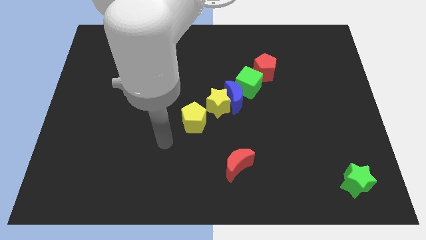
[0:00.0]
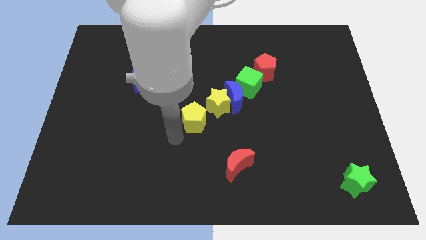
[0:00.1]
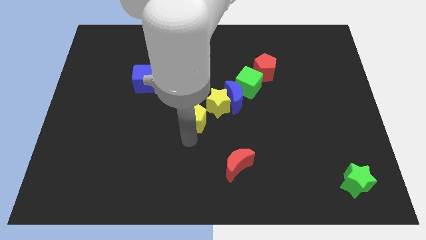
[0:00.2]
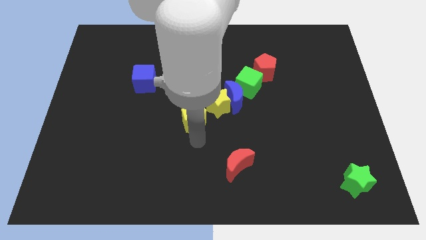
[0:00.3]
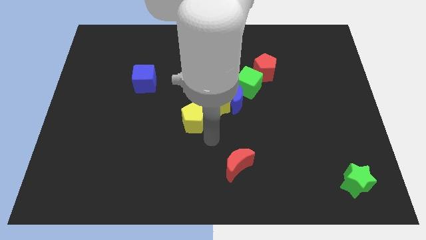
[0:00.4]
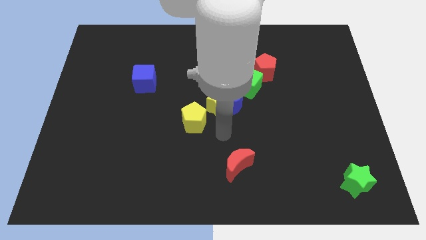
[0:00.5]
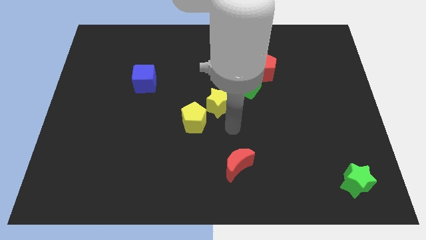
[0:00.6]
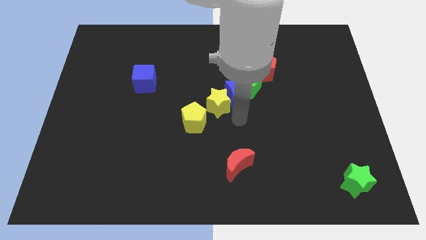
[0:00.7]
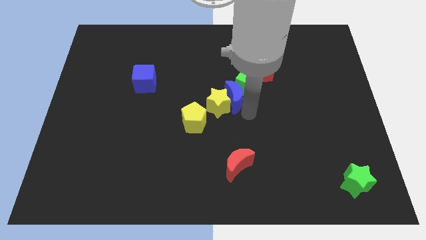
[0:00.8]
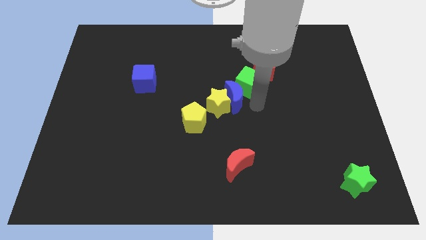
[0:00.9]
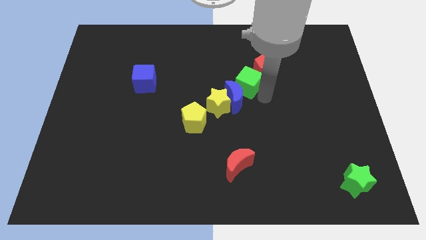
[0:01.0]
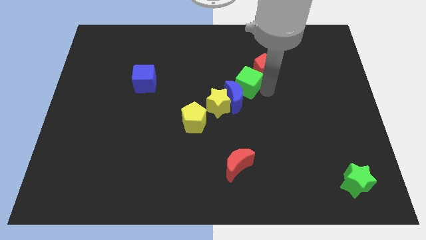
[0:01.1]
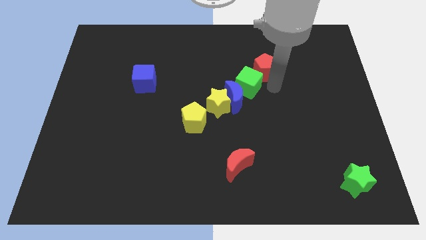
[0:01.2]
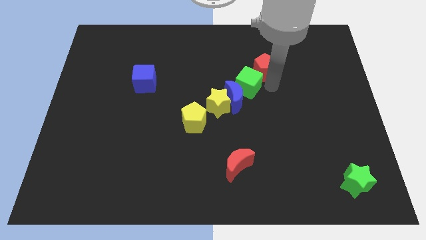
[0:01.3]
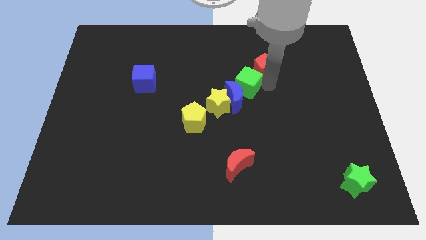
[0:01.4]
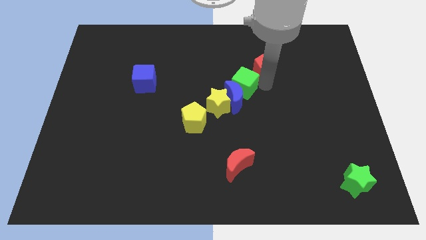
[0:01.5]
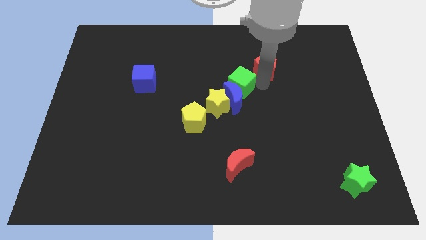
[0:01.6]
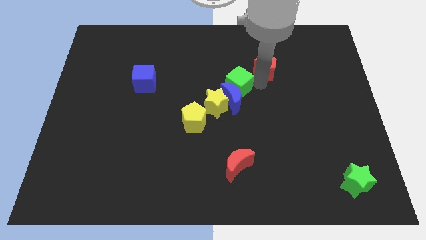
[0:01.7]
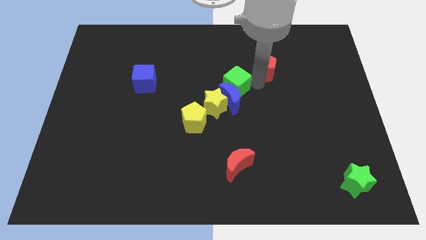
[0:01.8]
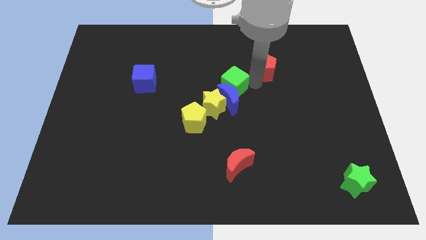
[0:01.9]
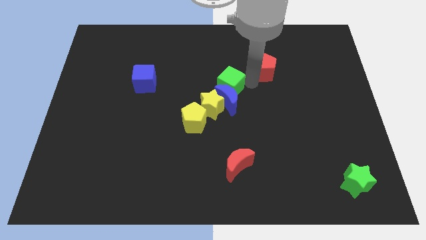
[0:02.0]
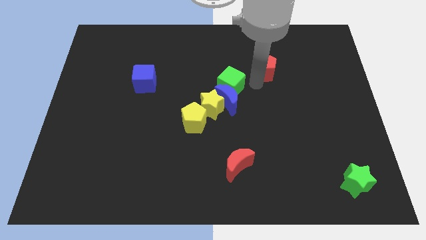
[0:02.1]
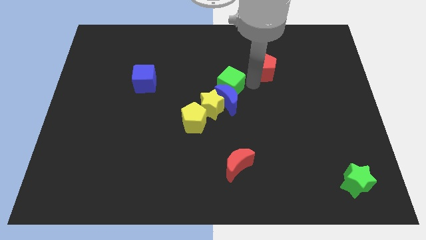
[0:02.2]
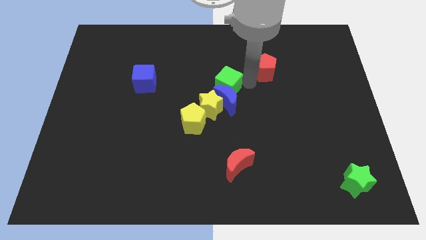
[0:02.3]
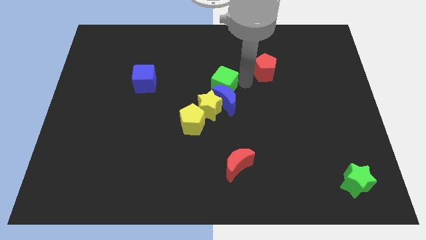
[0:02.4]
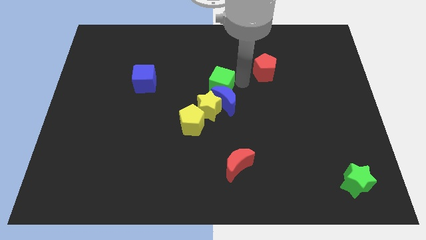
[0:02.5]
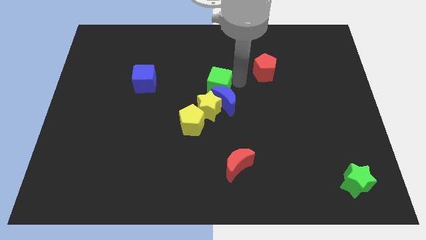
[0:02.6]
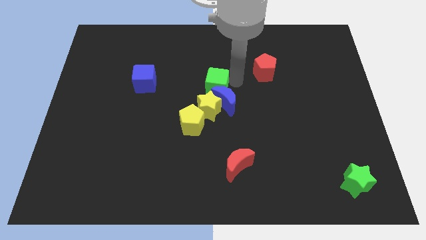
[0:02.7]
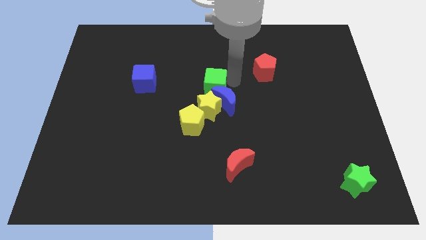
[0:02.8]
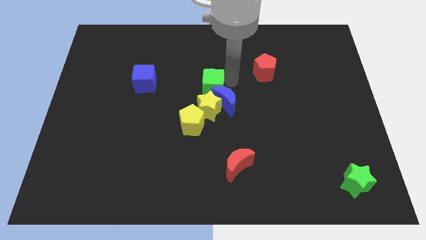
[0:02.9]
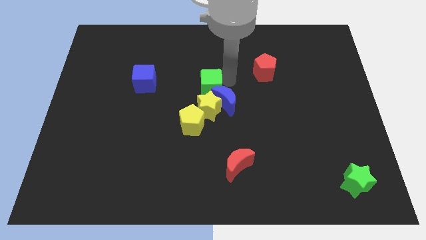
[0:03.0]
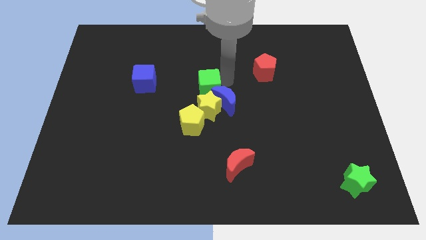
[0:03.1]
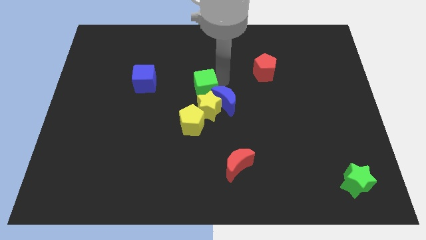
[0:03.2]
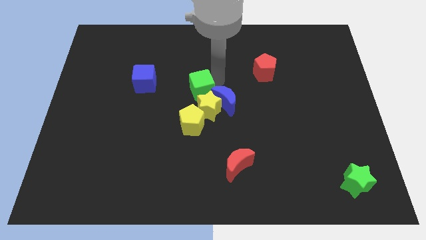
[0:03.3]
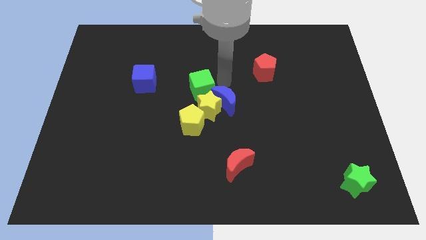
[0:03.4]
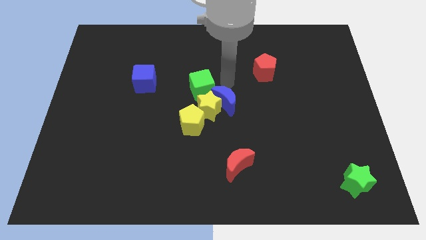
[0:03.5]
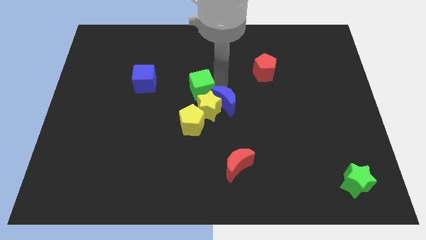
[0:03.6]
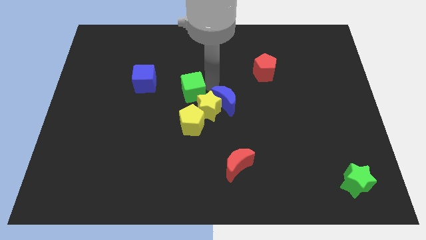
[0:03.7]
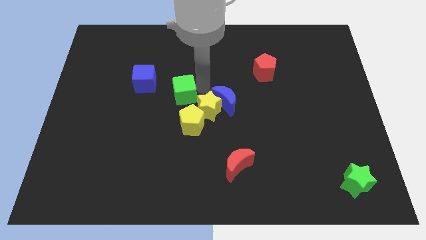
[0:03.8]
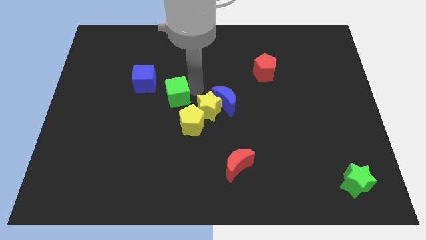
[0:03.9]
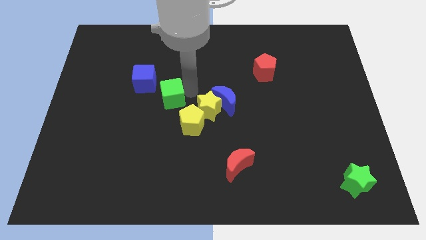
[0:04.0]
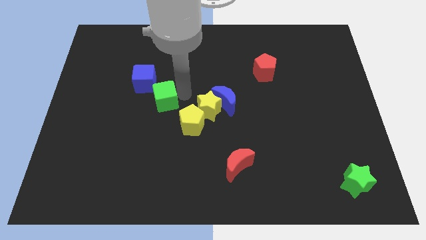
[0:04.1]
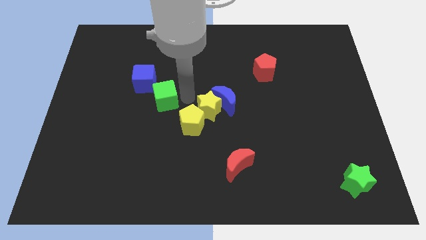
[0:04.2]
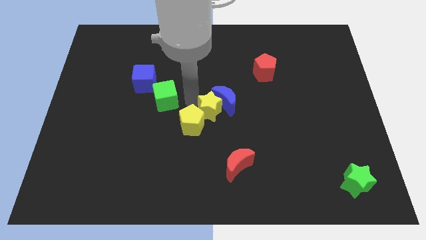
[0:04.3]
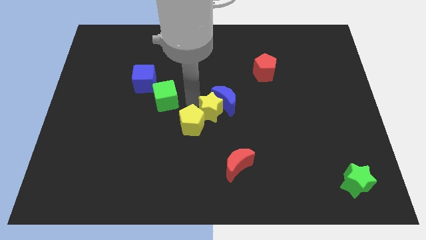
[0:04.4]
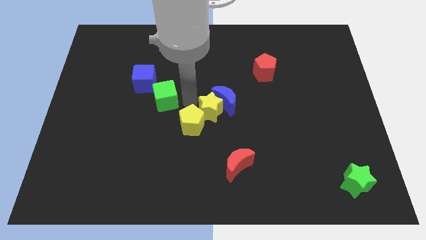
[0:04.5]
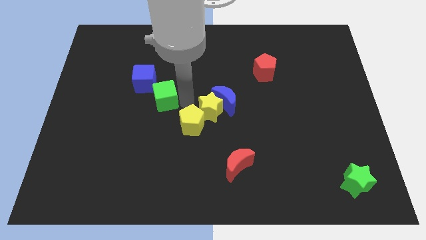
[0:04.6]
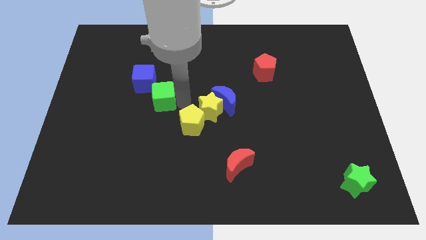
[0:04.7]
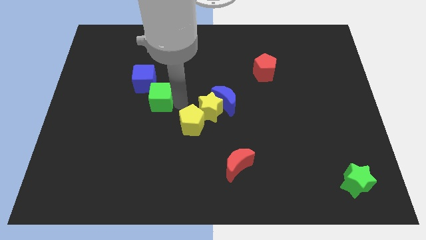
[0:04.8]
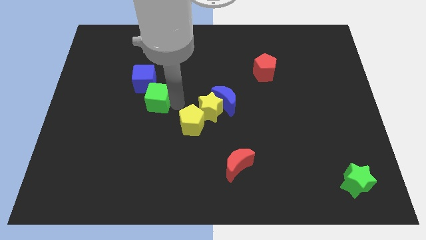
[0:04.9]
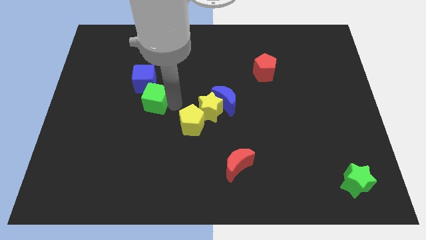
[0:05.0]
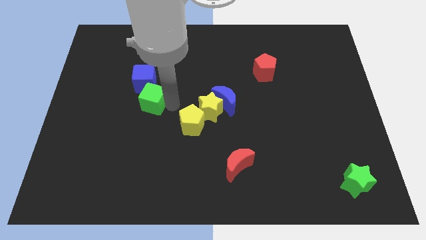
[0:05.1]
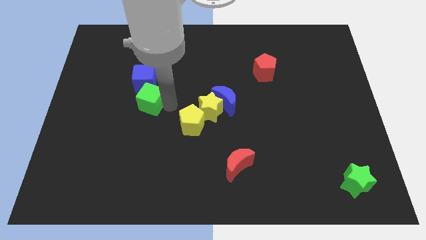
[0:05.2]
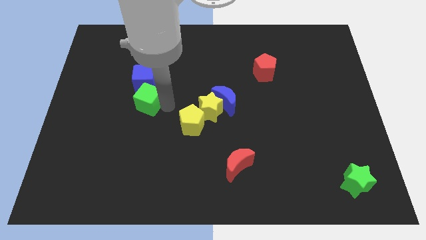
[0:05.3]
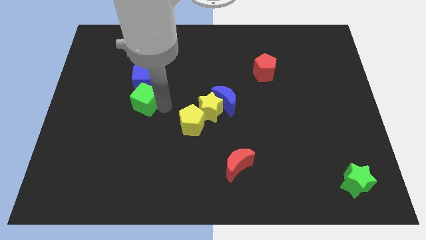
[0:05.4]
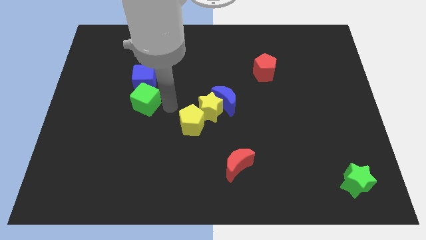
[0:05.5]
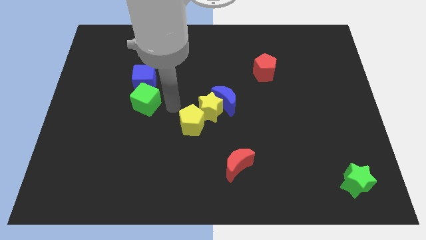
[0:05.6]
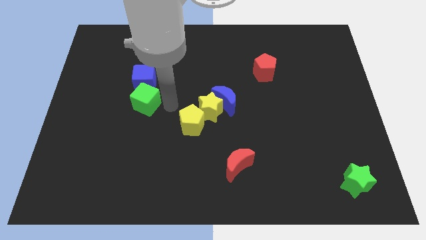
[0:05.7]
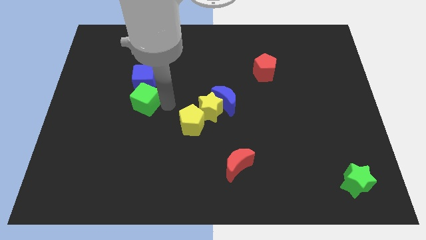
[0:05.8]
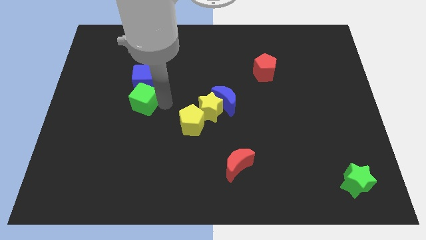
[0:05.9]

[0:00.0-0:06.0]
push the green cube to the bottom left side of the blue cube
